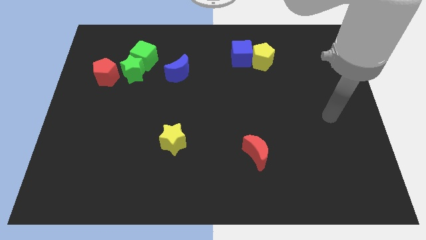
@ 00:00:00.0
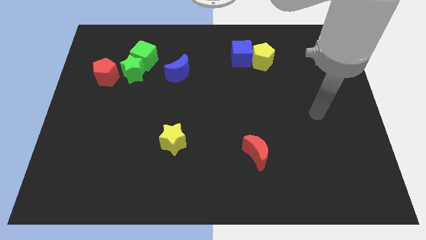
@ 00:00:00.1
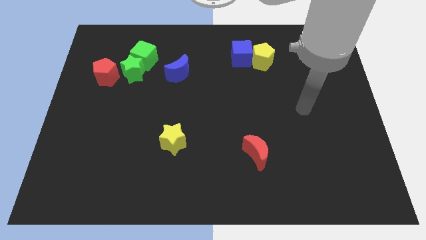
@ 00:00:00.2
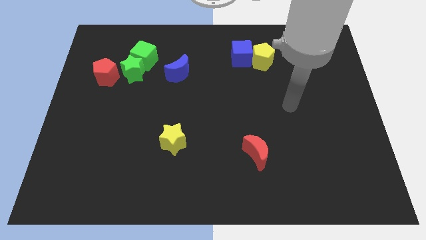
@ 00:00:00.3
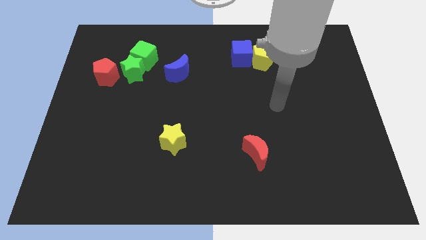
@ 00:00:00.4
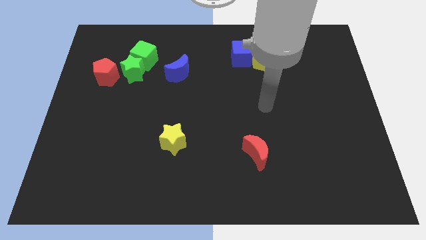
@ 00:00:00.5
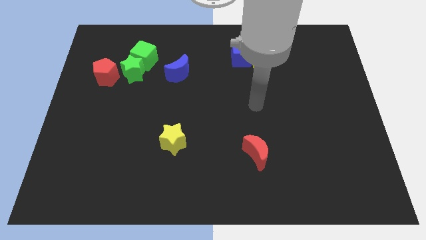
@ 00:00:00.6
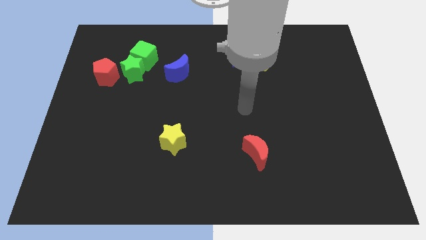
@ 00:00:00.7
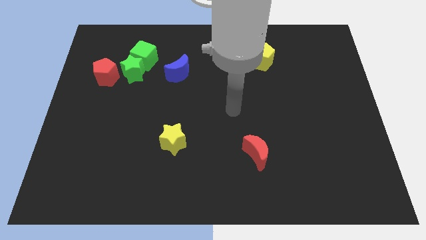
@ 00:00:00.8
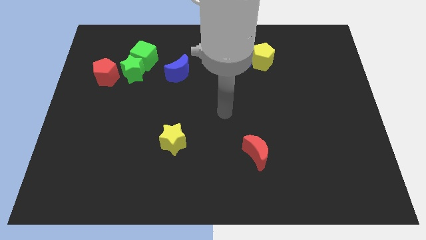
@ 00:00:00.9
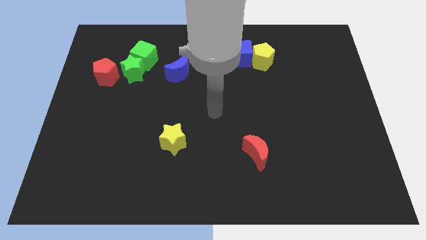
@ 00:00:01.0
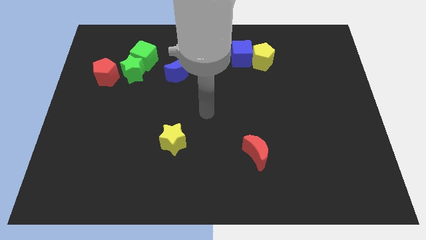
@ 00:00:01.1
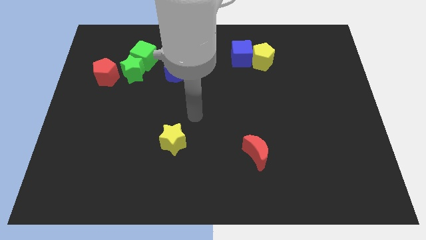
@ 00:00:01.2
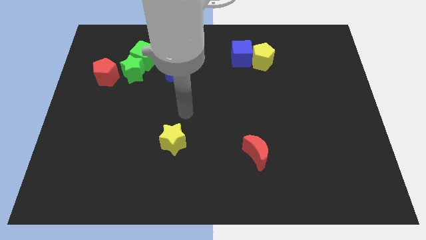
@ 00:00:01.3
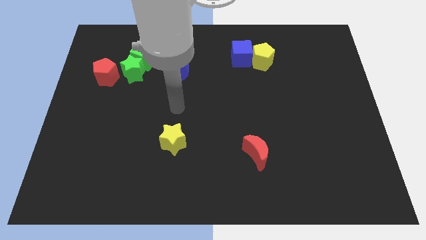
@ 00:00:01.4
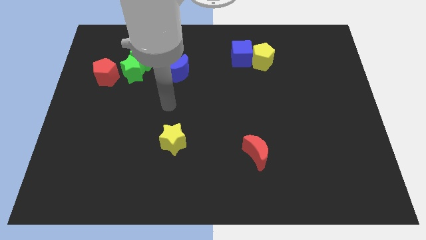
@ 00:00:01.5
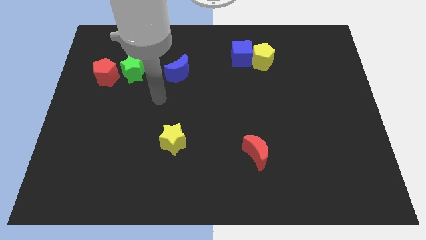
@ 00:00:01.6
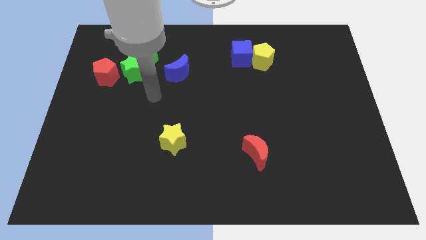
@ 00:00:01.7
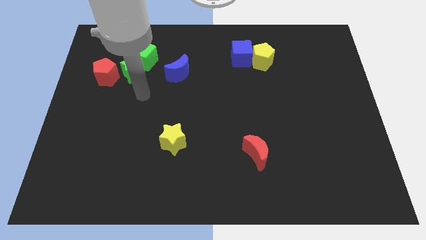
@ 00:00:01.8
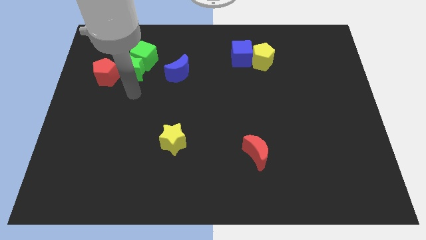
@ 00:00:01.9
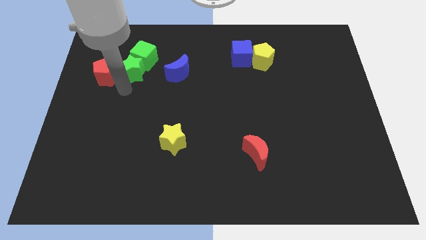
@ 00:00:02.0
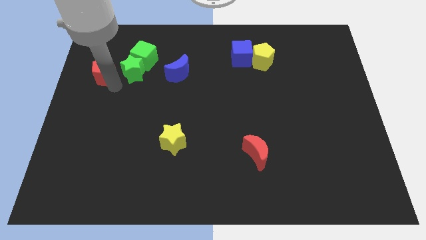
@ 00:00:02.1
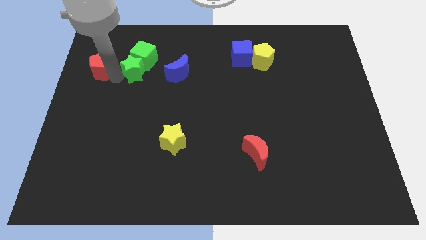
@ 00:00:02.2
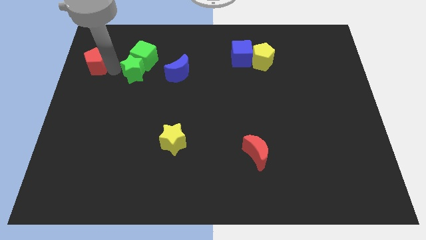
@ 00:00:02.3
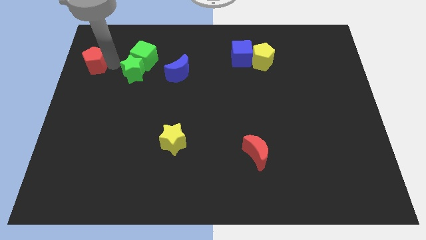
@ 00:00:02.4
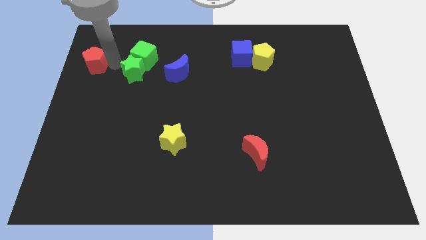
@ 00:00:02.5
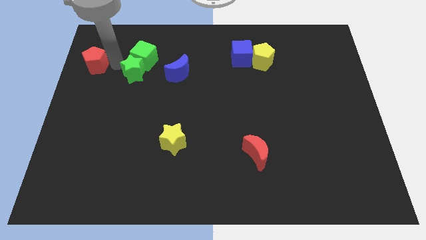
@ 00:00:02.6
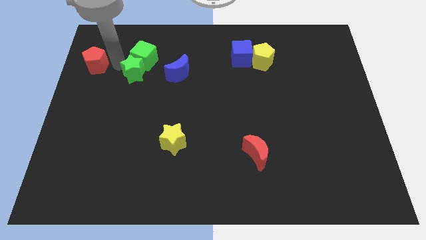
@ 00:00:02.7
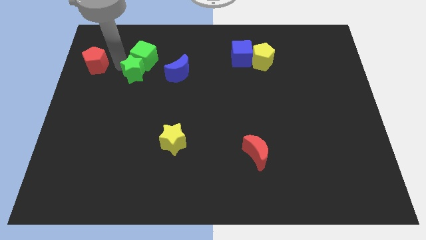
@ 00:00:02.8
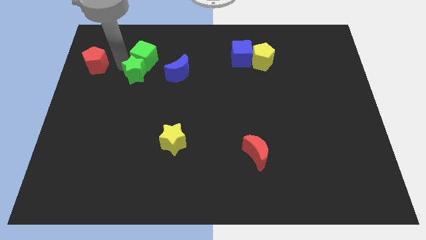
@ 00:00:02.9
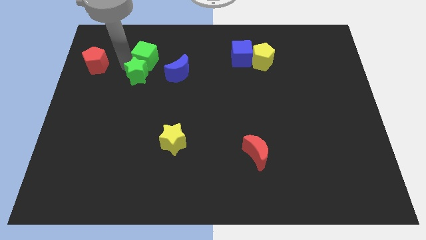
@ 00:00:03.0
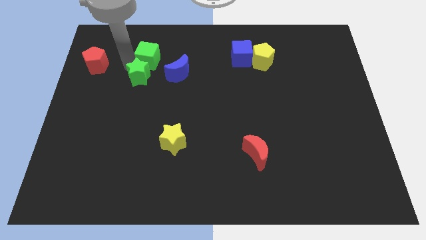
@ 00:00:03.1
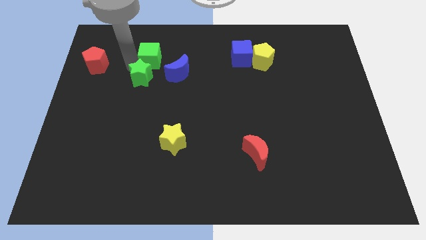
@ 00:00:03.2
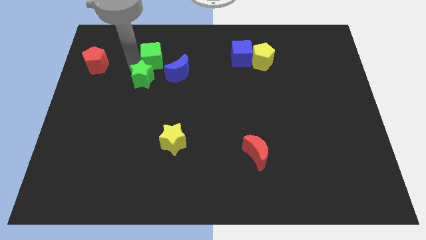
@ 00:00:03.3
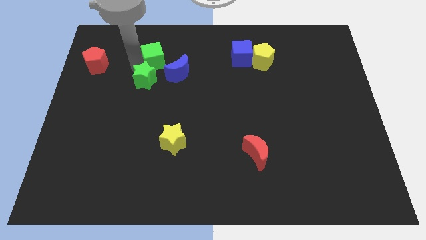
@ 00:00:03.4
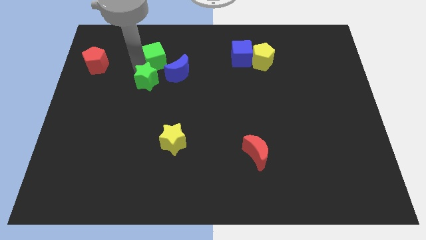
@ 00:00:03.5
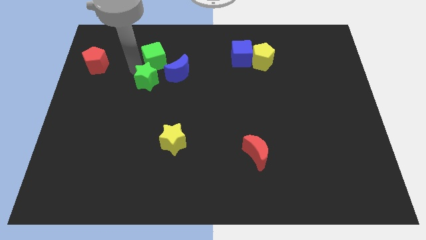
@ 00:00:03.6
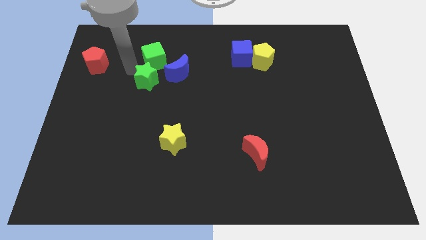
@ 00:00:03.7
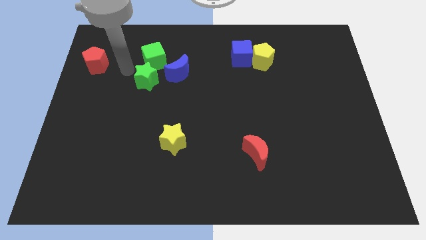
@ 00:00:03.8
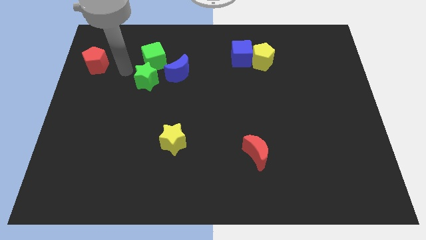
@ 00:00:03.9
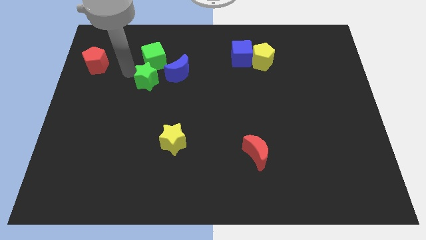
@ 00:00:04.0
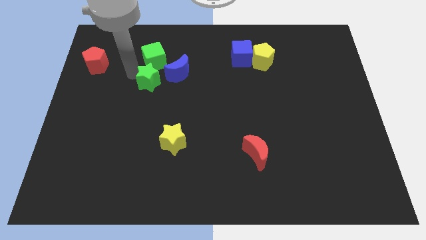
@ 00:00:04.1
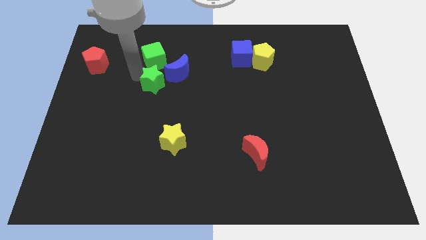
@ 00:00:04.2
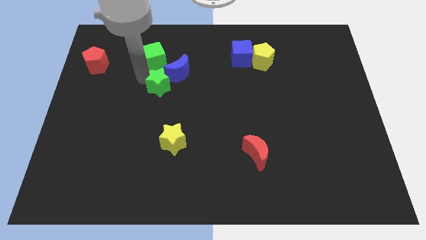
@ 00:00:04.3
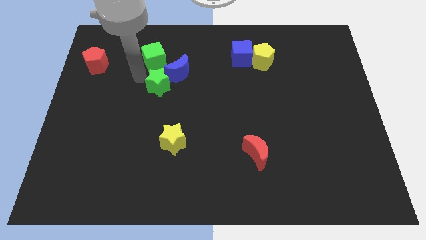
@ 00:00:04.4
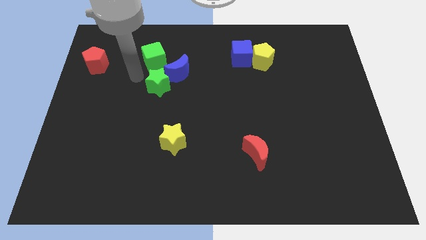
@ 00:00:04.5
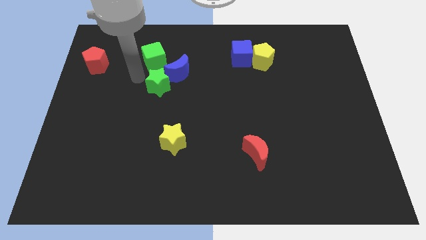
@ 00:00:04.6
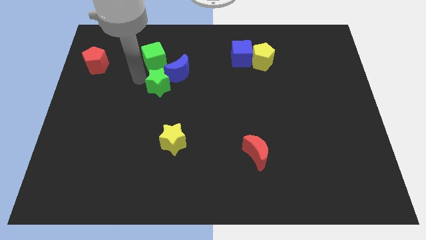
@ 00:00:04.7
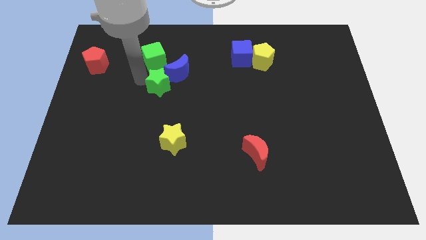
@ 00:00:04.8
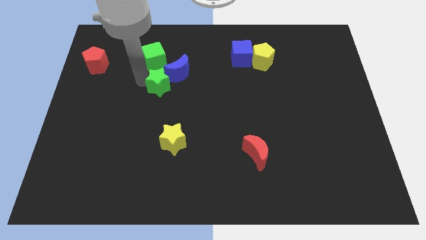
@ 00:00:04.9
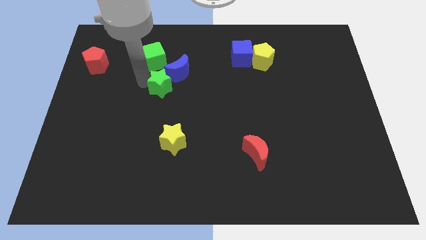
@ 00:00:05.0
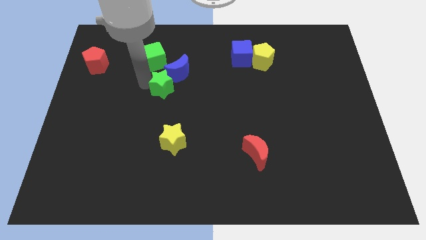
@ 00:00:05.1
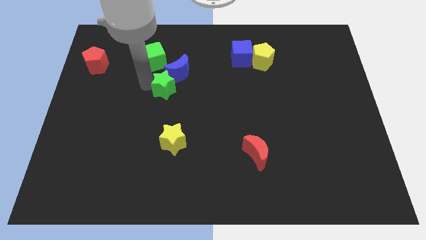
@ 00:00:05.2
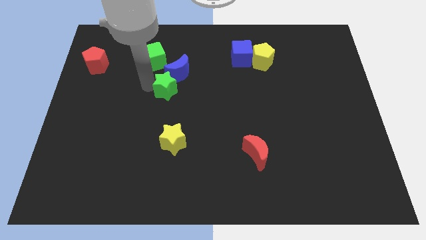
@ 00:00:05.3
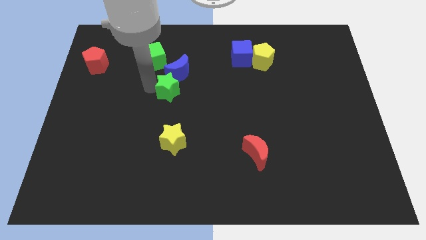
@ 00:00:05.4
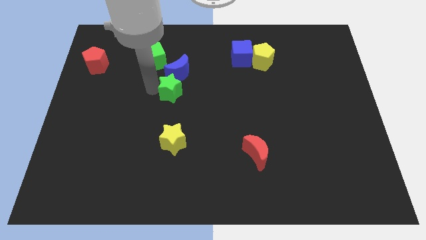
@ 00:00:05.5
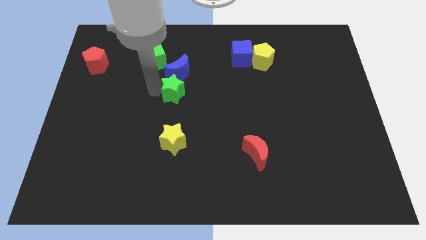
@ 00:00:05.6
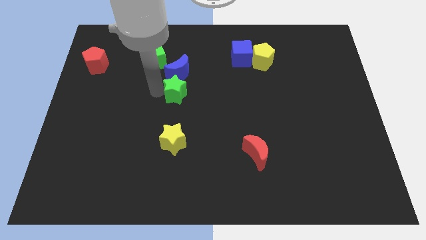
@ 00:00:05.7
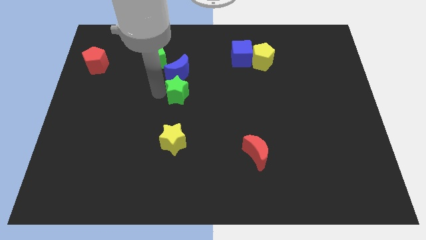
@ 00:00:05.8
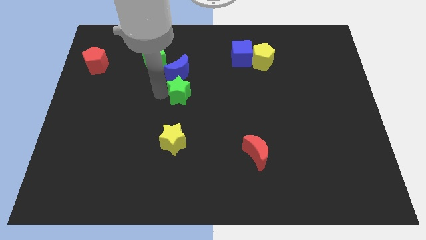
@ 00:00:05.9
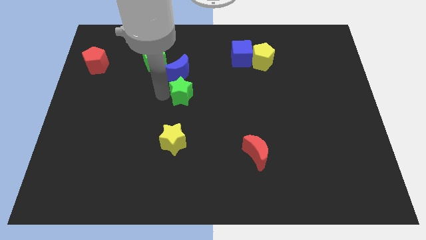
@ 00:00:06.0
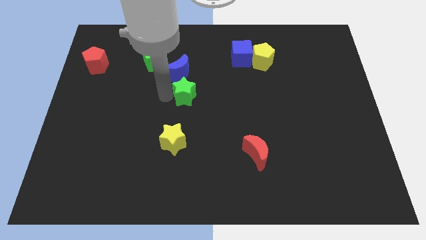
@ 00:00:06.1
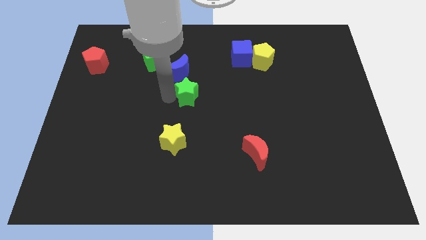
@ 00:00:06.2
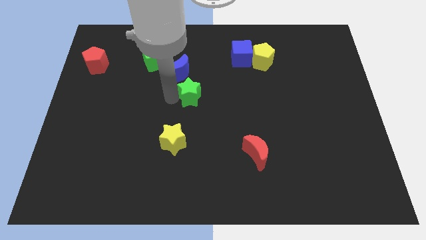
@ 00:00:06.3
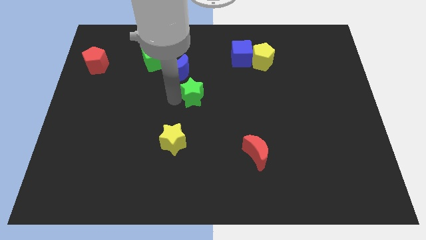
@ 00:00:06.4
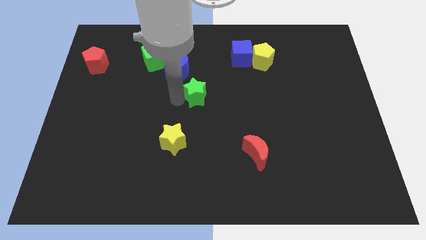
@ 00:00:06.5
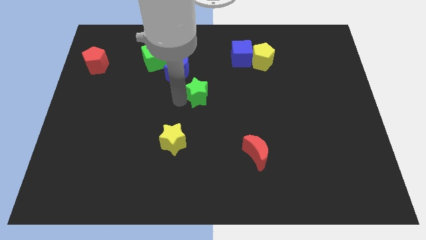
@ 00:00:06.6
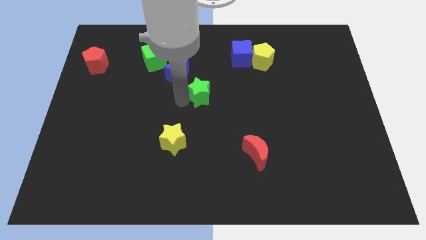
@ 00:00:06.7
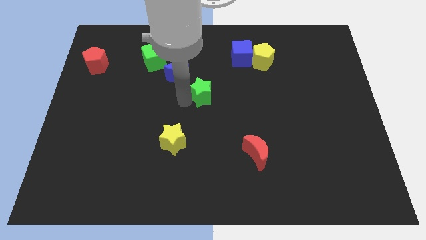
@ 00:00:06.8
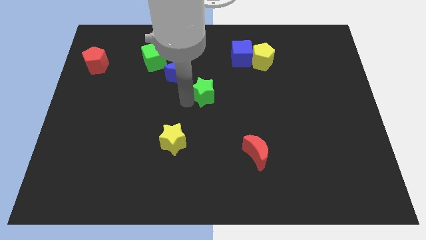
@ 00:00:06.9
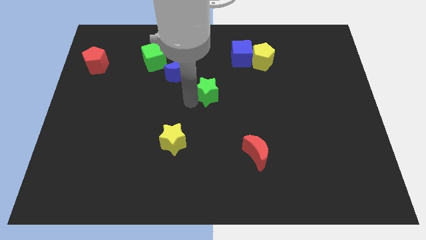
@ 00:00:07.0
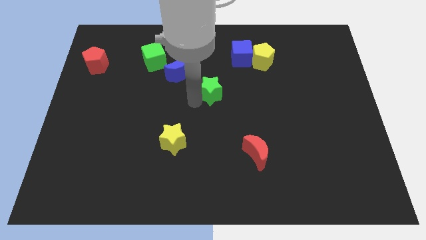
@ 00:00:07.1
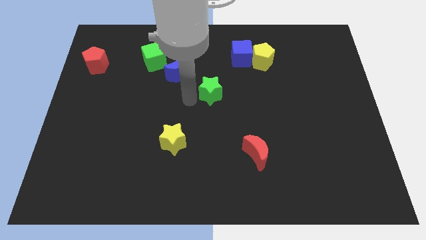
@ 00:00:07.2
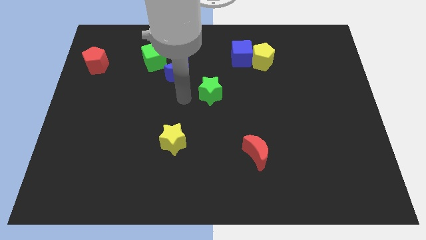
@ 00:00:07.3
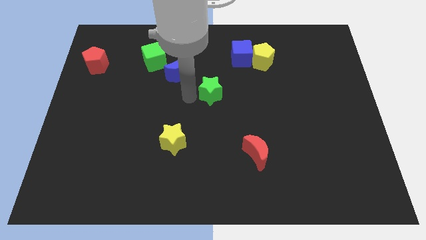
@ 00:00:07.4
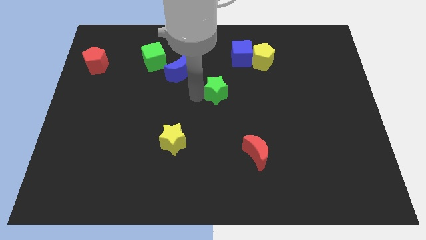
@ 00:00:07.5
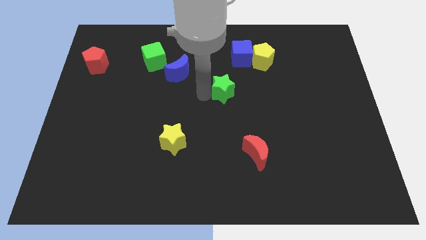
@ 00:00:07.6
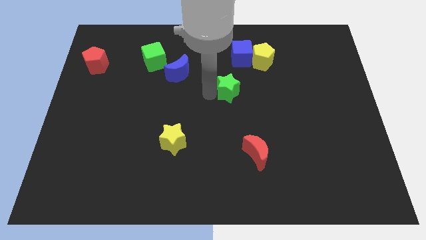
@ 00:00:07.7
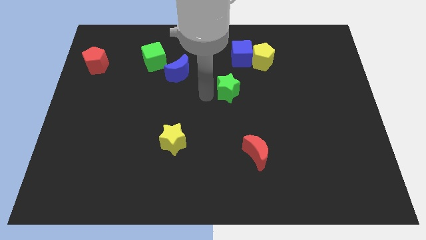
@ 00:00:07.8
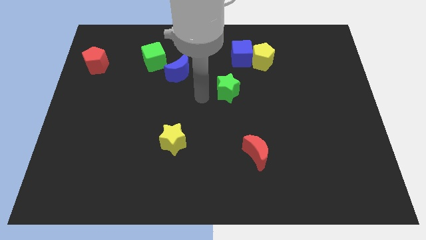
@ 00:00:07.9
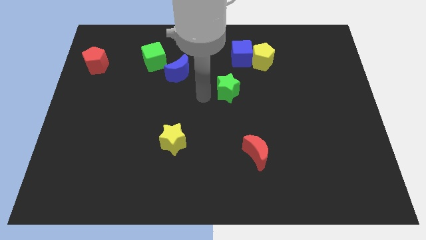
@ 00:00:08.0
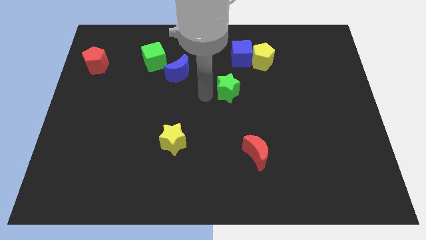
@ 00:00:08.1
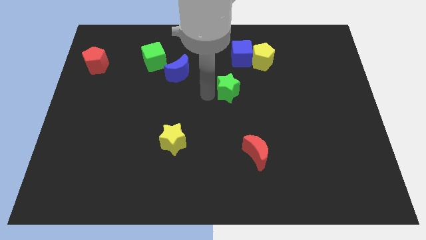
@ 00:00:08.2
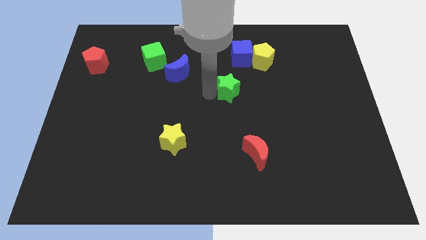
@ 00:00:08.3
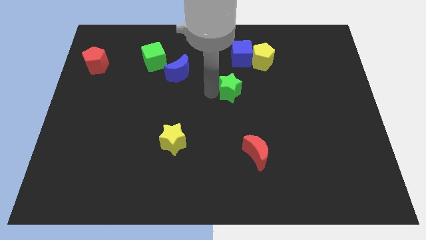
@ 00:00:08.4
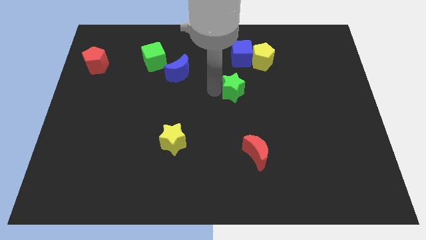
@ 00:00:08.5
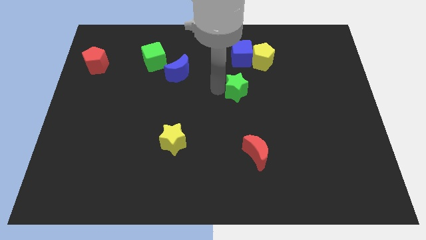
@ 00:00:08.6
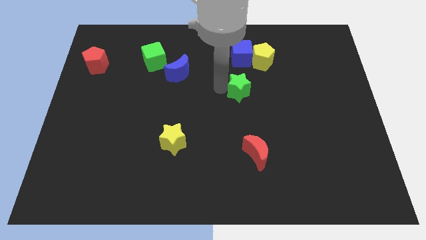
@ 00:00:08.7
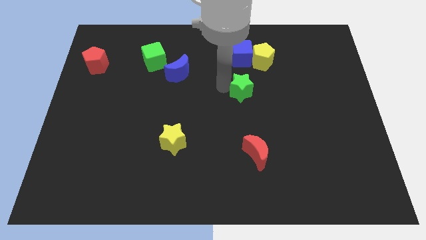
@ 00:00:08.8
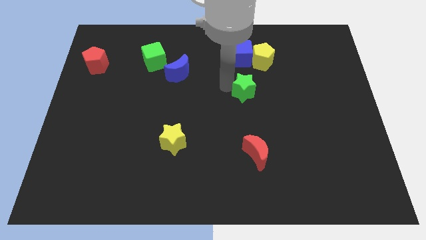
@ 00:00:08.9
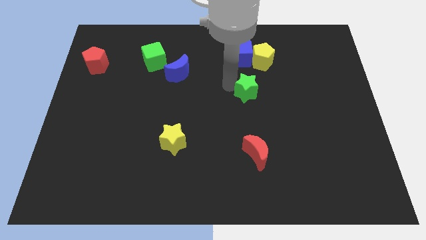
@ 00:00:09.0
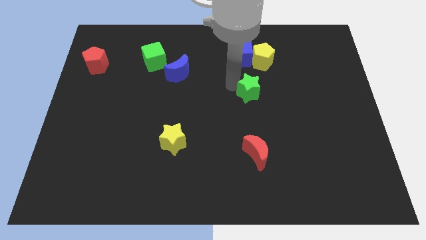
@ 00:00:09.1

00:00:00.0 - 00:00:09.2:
put the green star below the yellow pentagon
